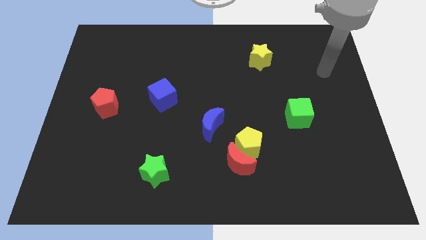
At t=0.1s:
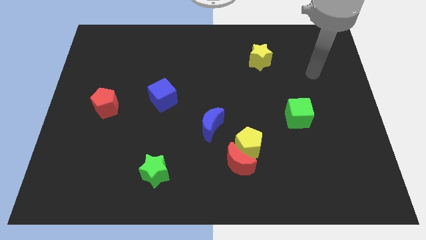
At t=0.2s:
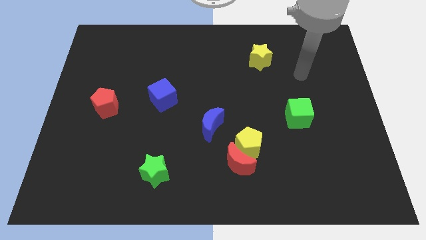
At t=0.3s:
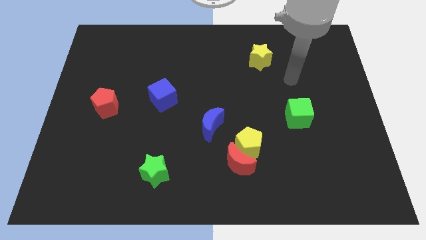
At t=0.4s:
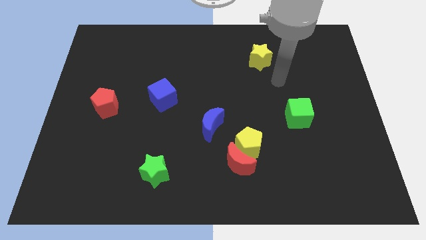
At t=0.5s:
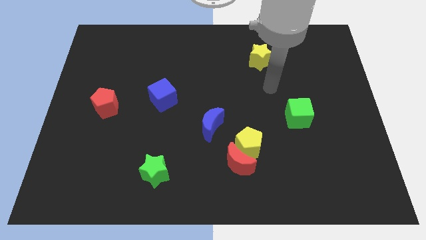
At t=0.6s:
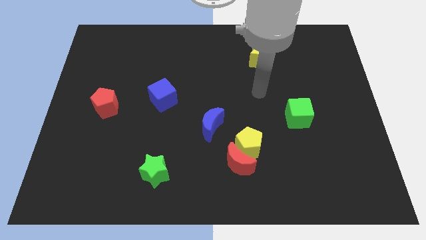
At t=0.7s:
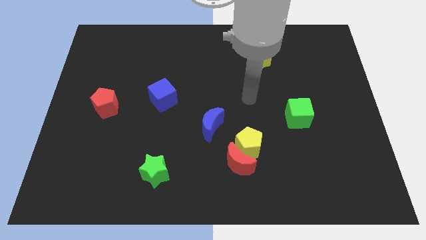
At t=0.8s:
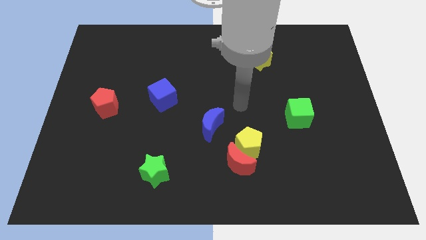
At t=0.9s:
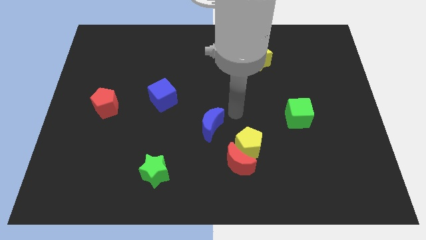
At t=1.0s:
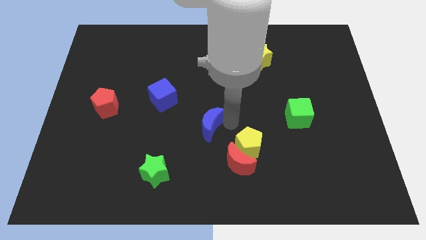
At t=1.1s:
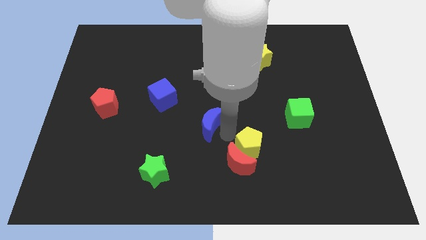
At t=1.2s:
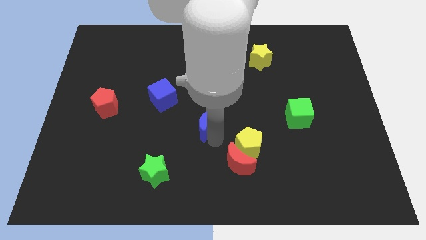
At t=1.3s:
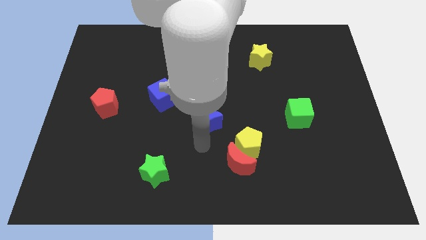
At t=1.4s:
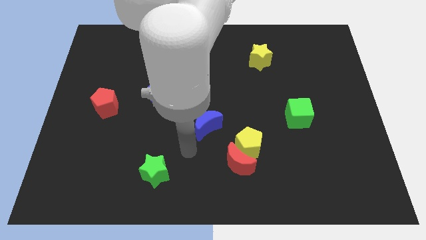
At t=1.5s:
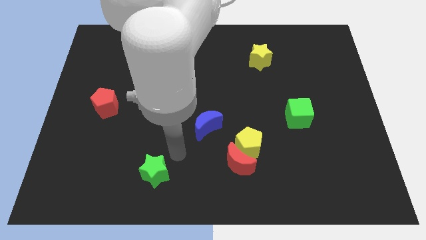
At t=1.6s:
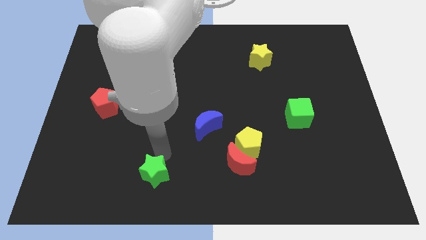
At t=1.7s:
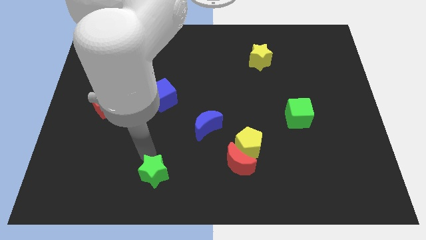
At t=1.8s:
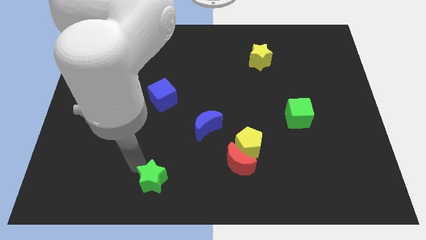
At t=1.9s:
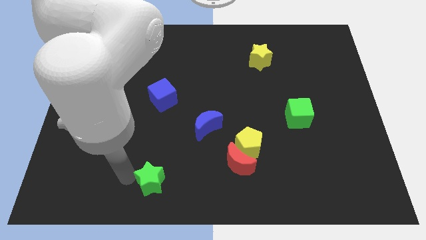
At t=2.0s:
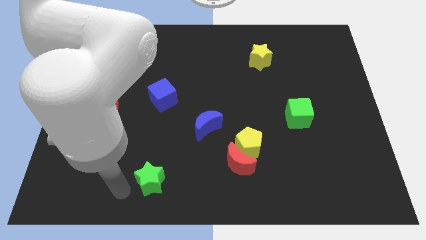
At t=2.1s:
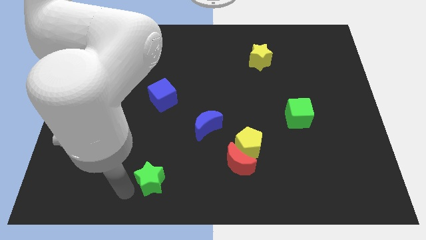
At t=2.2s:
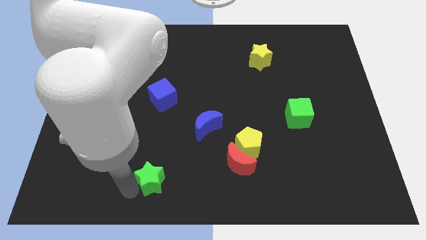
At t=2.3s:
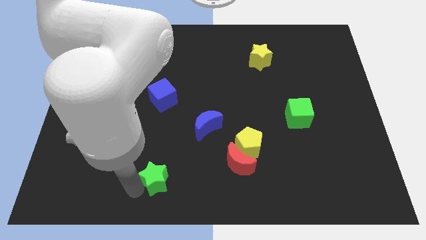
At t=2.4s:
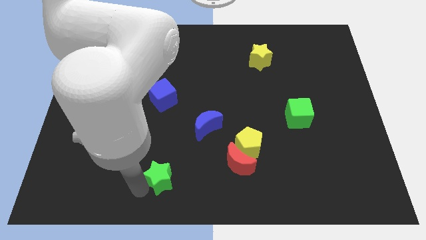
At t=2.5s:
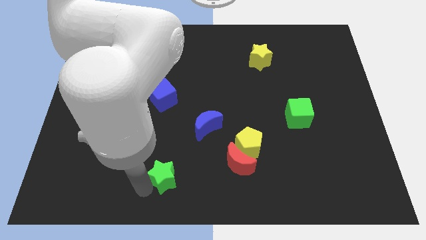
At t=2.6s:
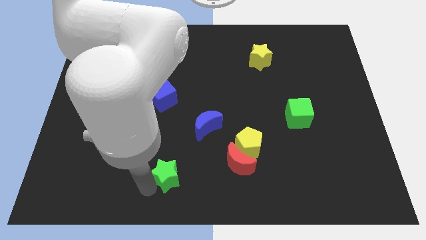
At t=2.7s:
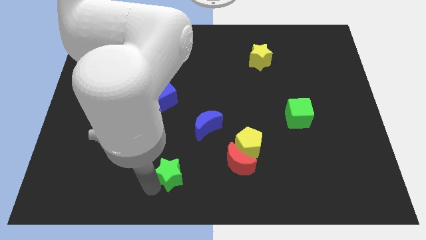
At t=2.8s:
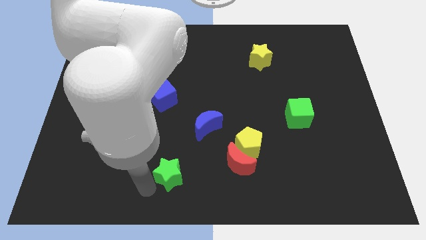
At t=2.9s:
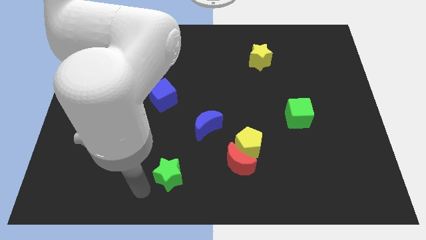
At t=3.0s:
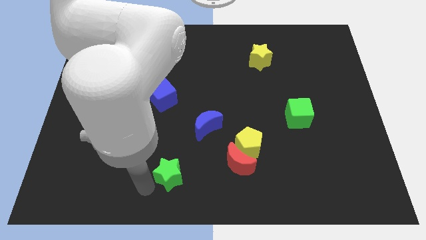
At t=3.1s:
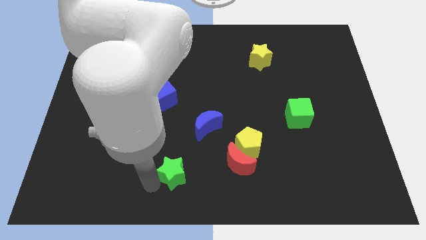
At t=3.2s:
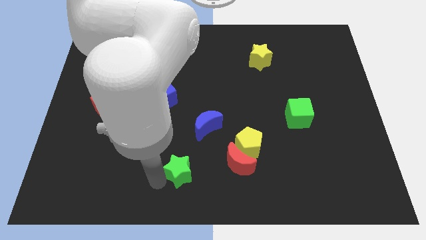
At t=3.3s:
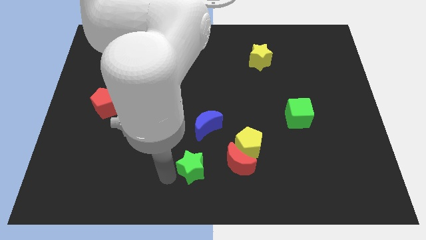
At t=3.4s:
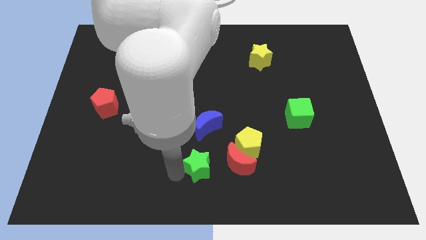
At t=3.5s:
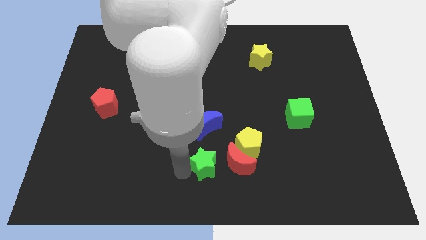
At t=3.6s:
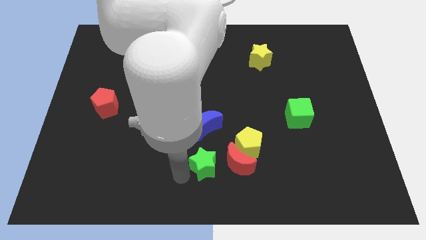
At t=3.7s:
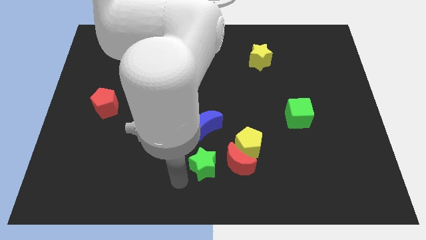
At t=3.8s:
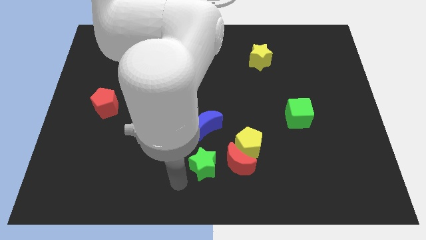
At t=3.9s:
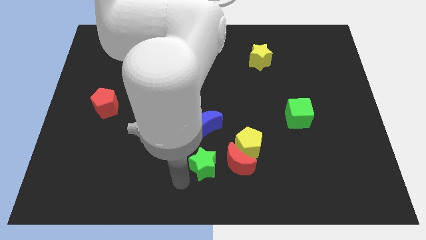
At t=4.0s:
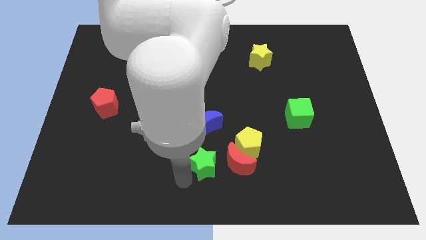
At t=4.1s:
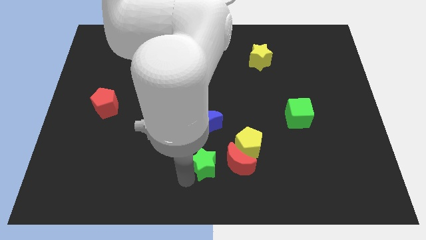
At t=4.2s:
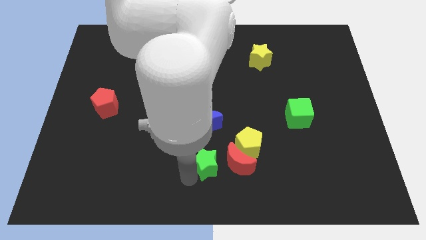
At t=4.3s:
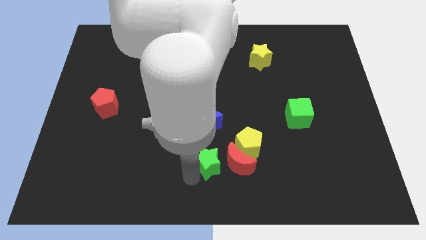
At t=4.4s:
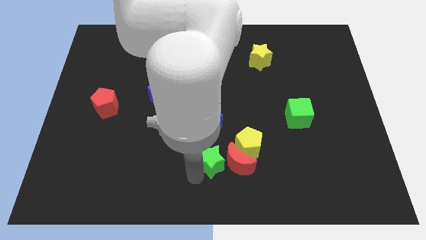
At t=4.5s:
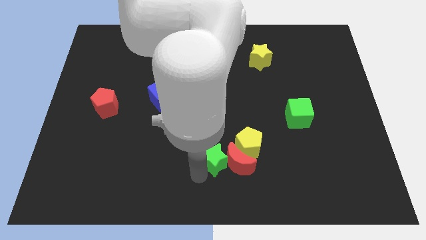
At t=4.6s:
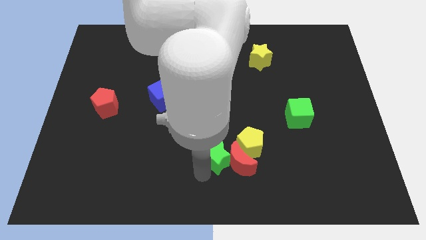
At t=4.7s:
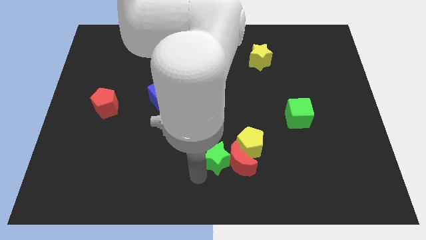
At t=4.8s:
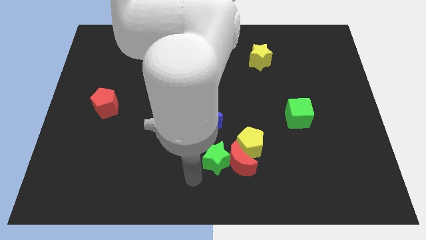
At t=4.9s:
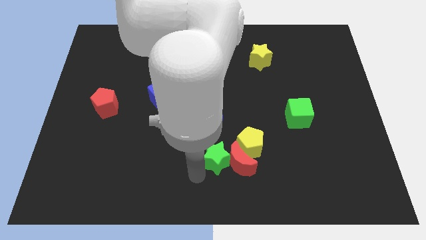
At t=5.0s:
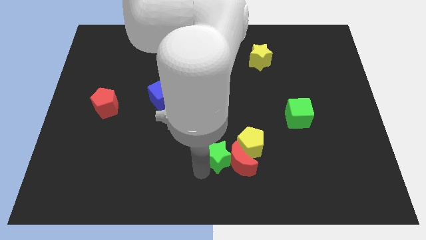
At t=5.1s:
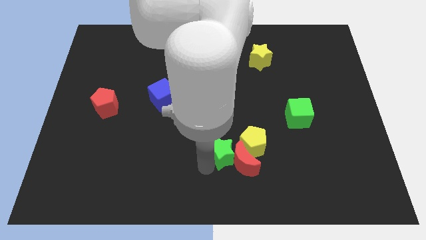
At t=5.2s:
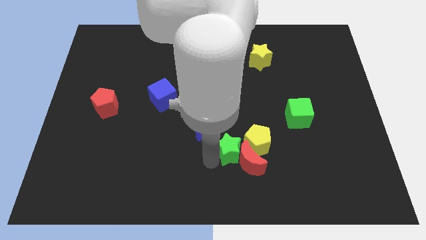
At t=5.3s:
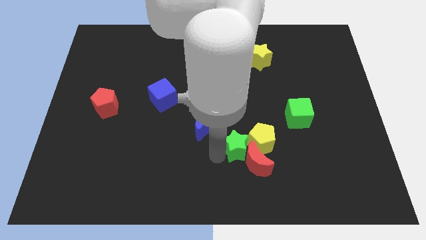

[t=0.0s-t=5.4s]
slide the green star close to the yellow pentagon

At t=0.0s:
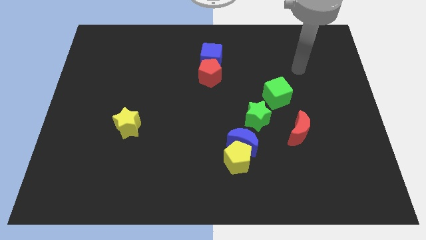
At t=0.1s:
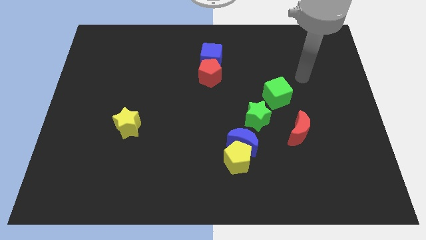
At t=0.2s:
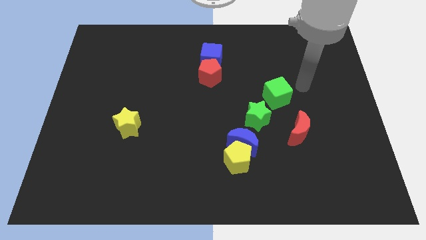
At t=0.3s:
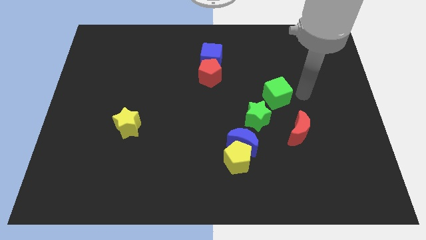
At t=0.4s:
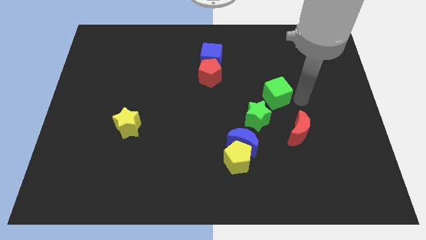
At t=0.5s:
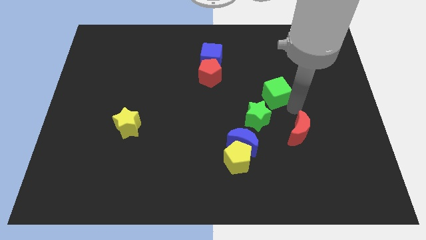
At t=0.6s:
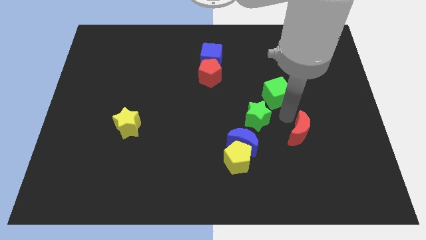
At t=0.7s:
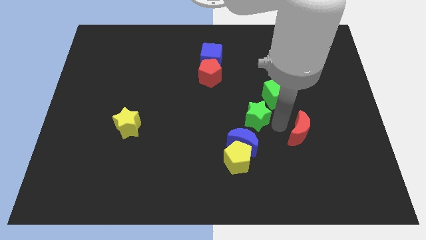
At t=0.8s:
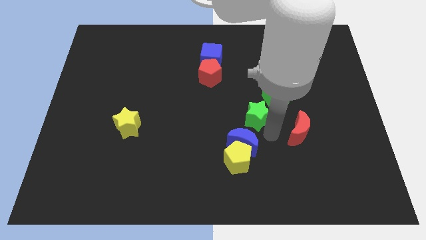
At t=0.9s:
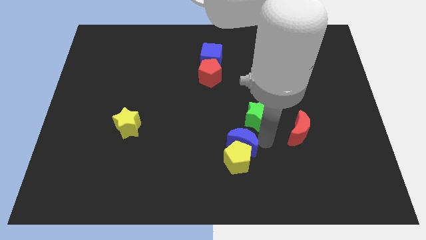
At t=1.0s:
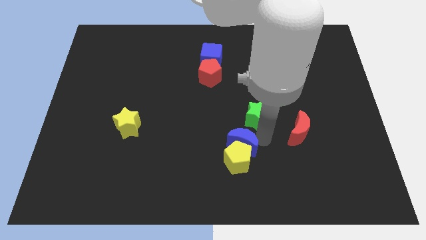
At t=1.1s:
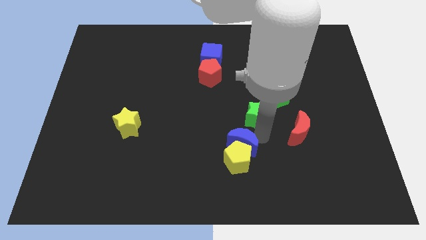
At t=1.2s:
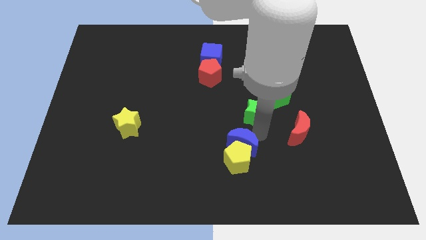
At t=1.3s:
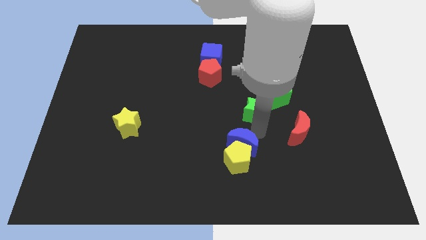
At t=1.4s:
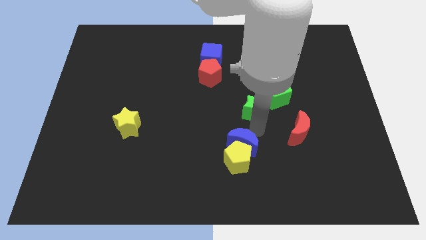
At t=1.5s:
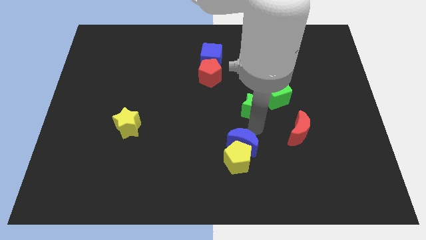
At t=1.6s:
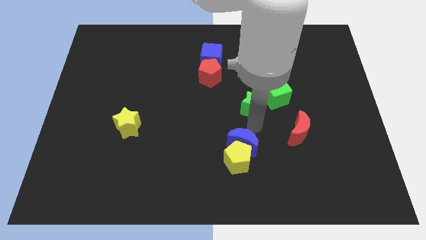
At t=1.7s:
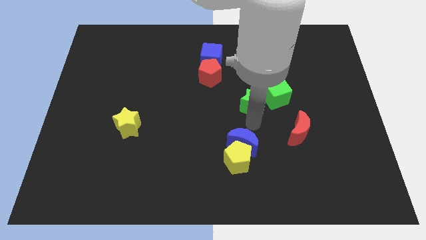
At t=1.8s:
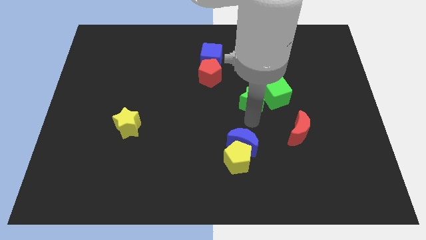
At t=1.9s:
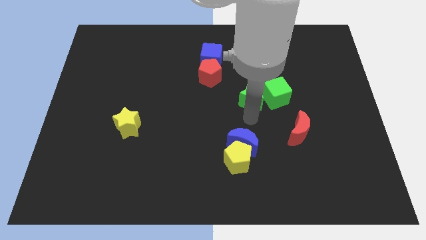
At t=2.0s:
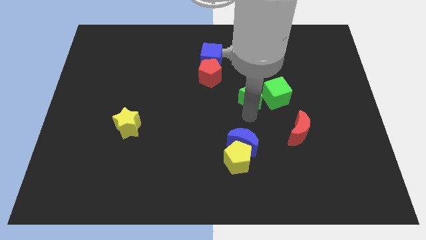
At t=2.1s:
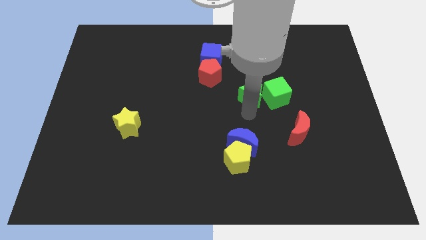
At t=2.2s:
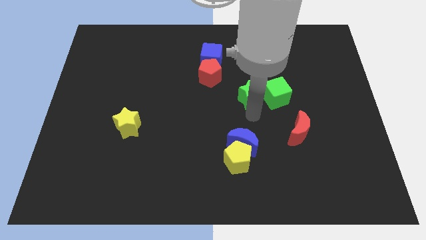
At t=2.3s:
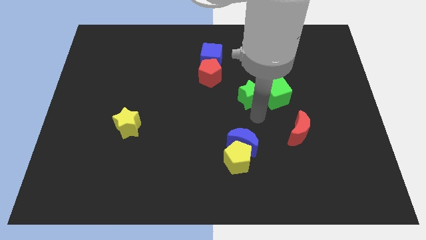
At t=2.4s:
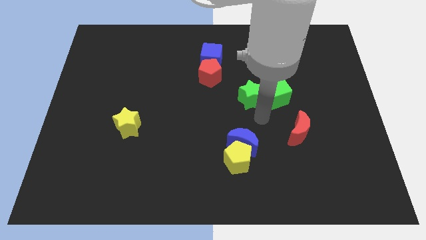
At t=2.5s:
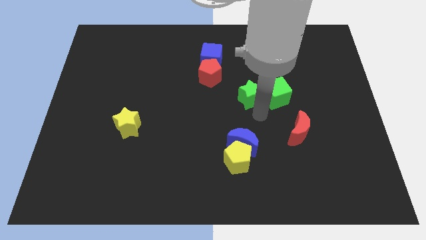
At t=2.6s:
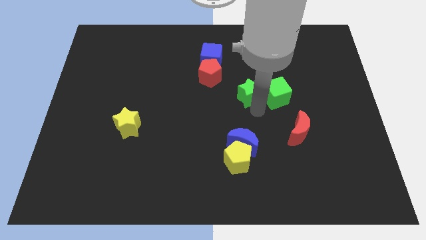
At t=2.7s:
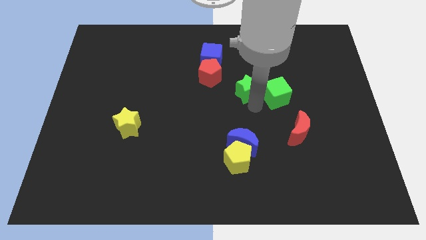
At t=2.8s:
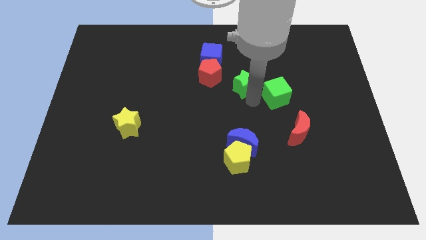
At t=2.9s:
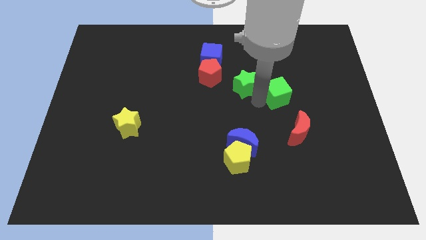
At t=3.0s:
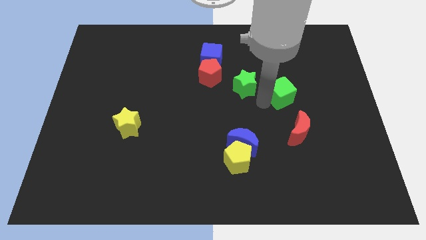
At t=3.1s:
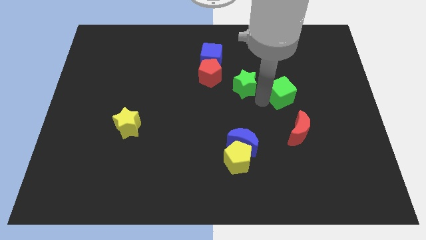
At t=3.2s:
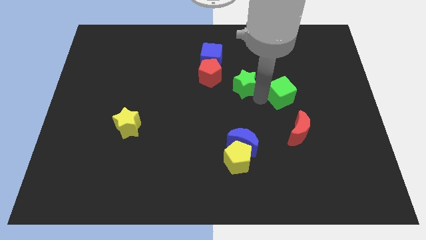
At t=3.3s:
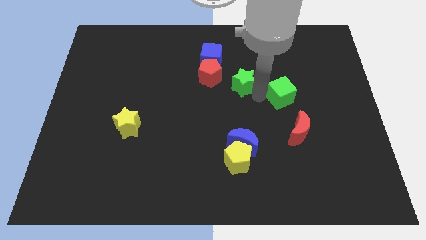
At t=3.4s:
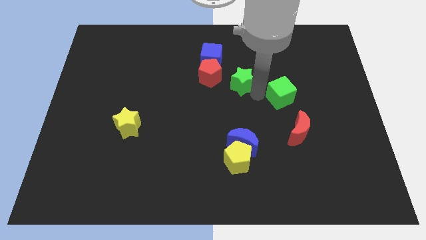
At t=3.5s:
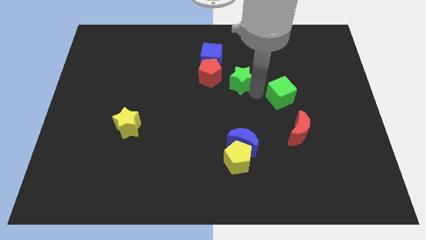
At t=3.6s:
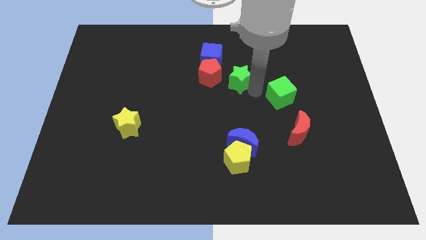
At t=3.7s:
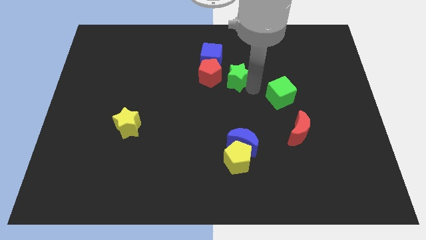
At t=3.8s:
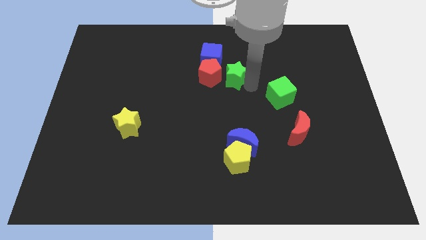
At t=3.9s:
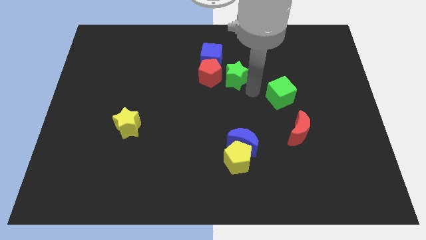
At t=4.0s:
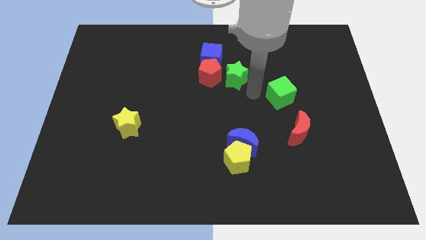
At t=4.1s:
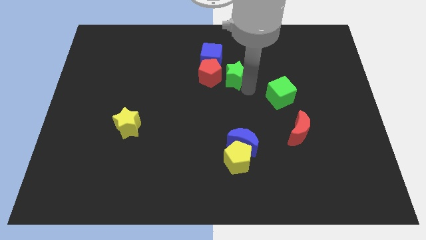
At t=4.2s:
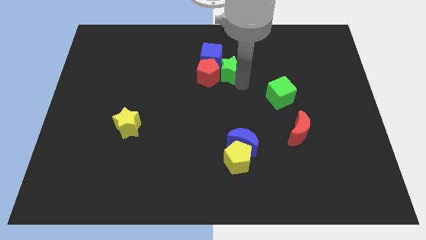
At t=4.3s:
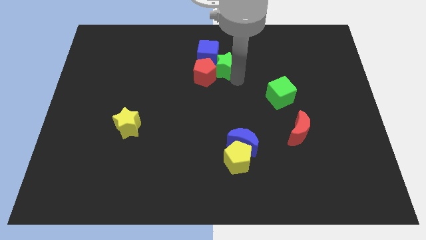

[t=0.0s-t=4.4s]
push the green star close to the blue cube
